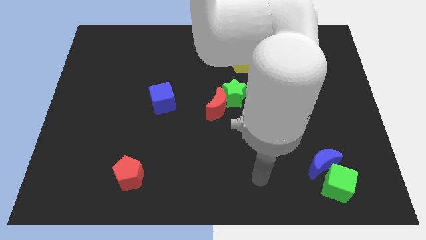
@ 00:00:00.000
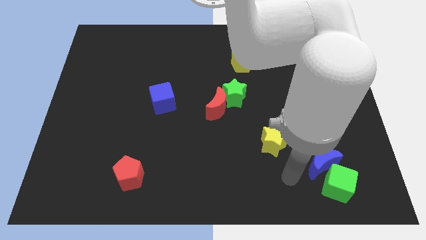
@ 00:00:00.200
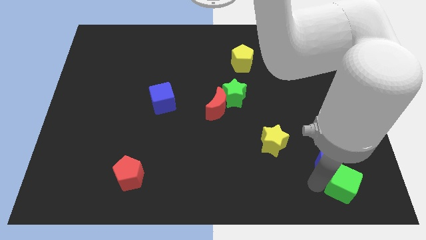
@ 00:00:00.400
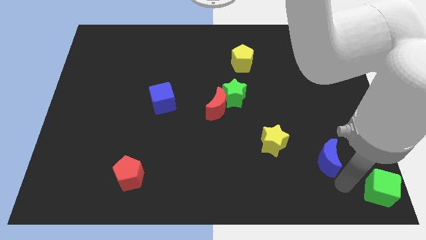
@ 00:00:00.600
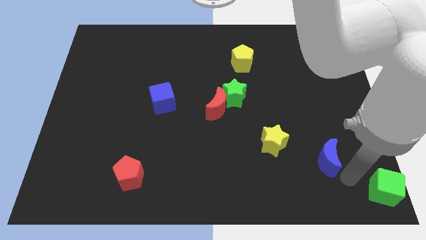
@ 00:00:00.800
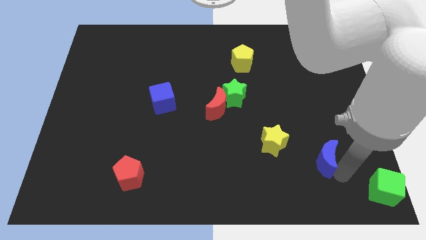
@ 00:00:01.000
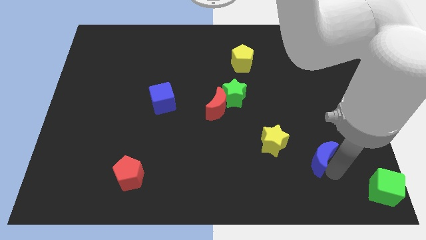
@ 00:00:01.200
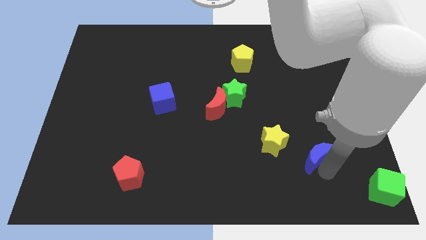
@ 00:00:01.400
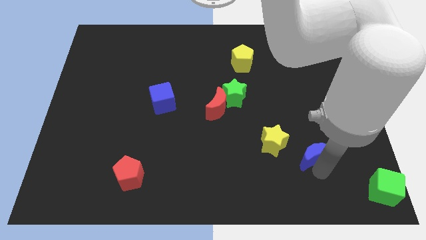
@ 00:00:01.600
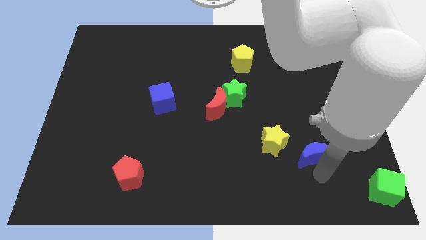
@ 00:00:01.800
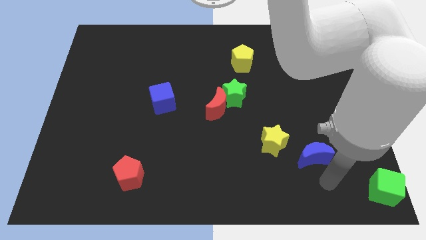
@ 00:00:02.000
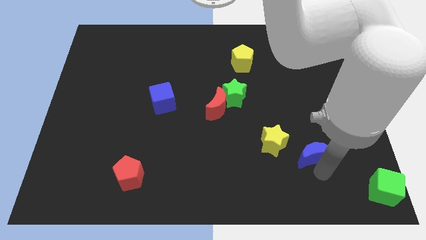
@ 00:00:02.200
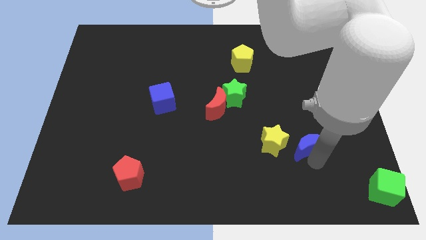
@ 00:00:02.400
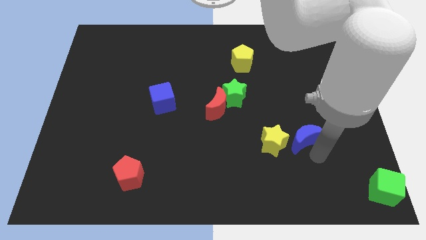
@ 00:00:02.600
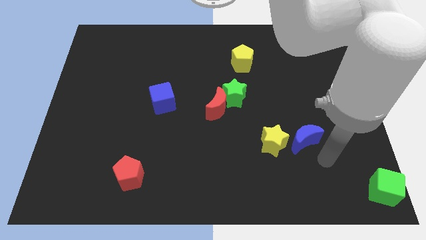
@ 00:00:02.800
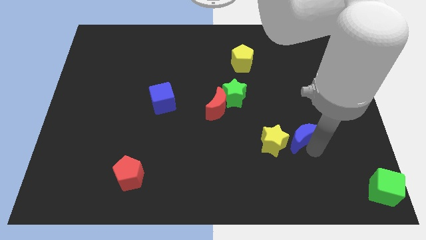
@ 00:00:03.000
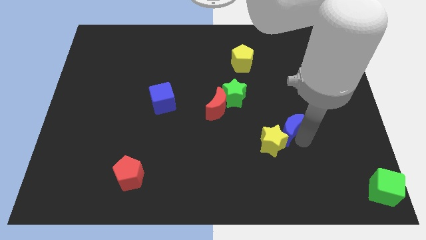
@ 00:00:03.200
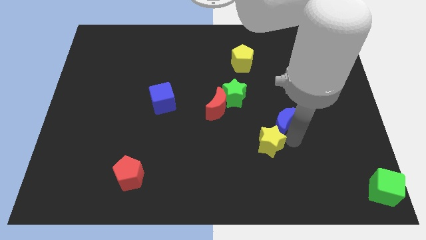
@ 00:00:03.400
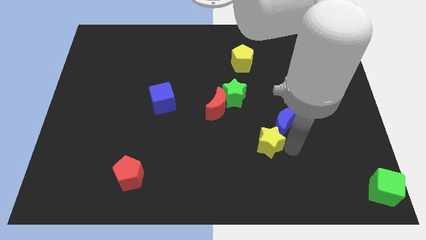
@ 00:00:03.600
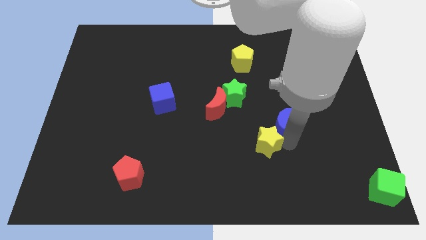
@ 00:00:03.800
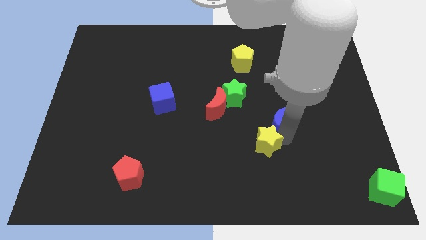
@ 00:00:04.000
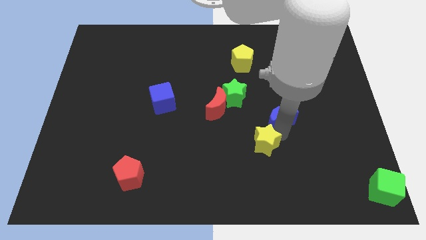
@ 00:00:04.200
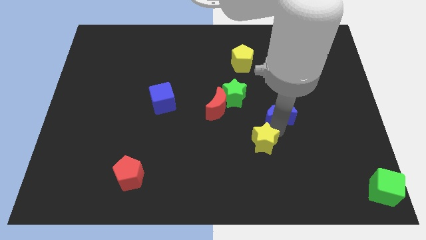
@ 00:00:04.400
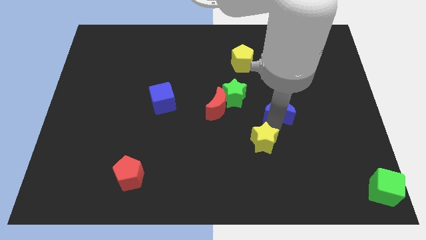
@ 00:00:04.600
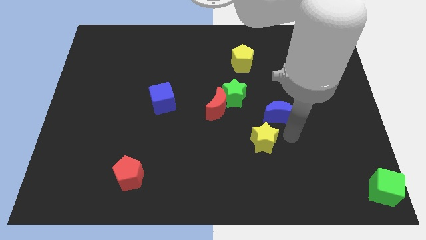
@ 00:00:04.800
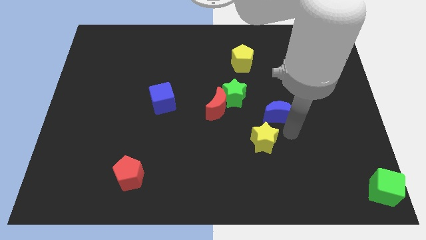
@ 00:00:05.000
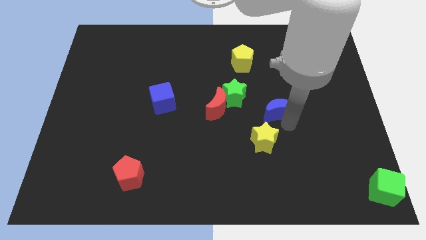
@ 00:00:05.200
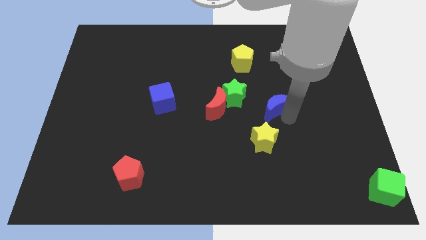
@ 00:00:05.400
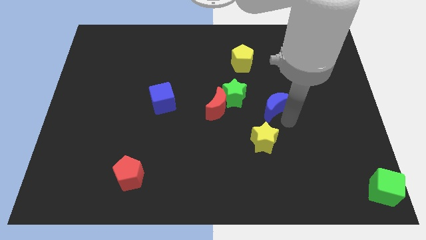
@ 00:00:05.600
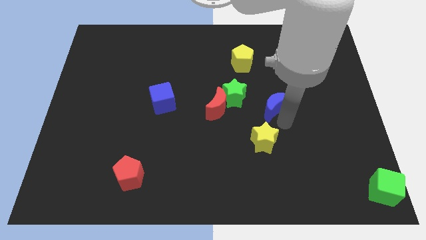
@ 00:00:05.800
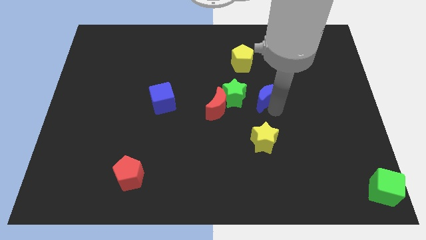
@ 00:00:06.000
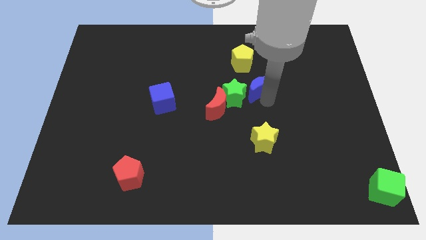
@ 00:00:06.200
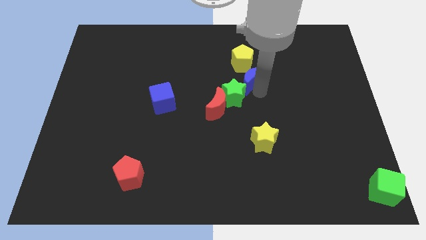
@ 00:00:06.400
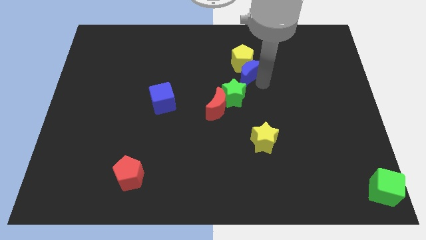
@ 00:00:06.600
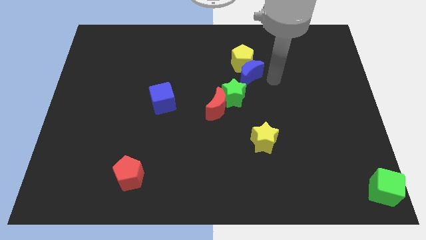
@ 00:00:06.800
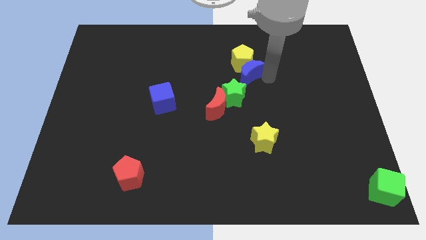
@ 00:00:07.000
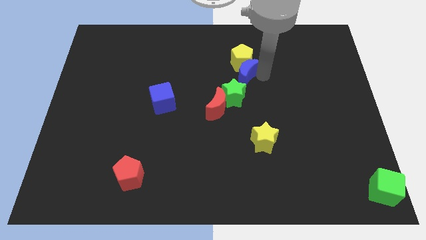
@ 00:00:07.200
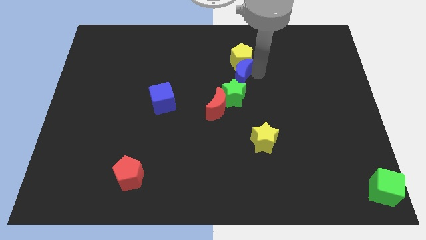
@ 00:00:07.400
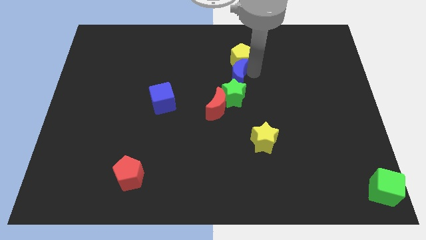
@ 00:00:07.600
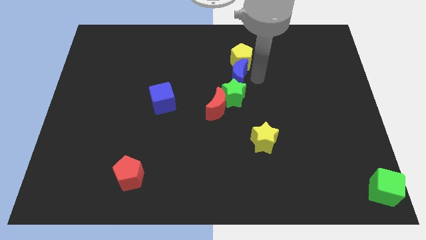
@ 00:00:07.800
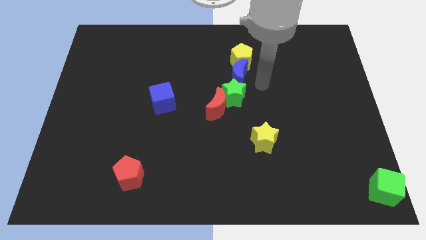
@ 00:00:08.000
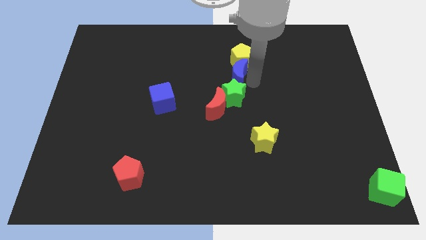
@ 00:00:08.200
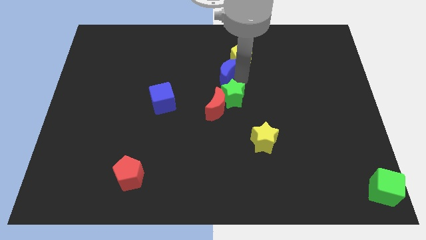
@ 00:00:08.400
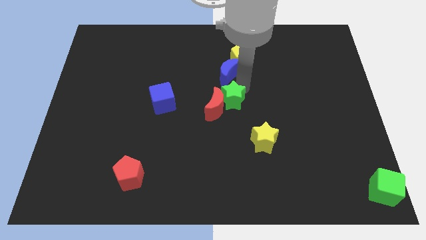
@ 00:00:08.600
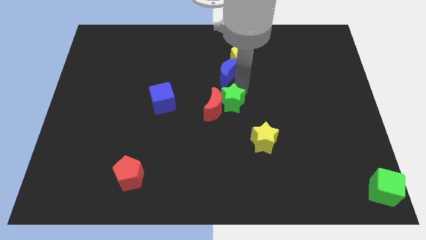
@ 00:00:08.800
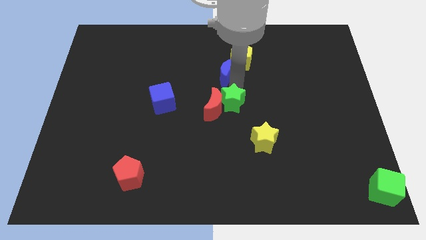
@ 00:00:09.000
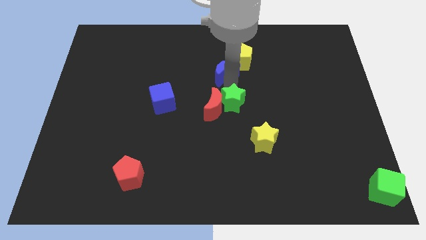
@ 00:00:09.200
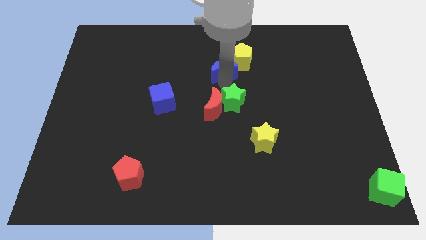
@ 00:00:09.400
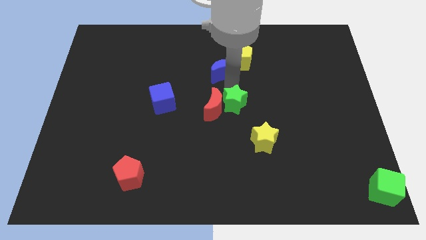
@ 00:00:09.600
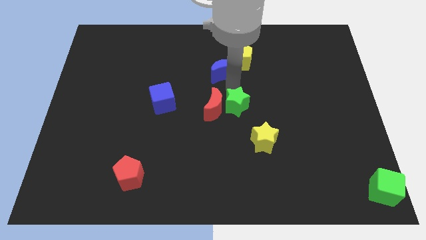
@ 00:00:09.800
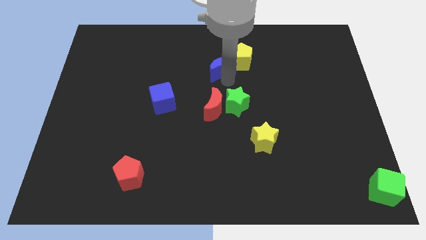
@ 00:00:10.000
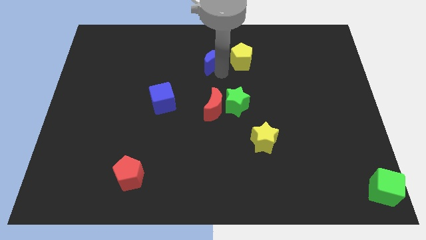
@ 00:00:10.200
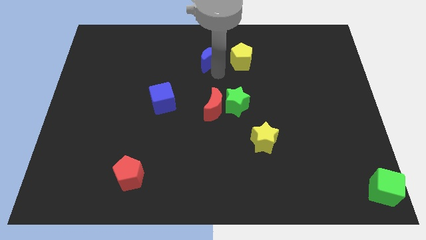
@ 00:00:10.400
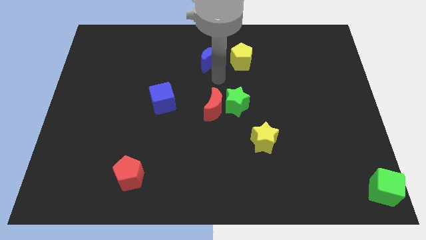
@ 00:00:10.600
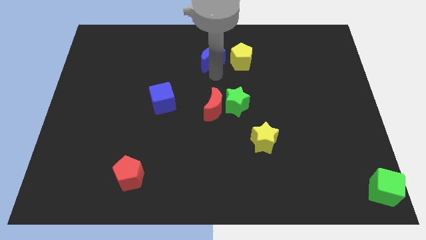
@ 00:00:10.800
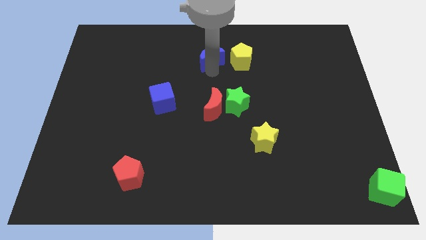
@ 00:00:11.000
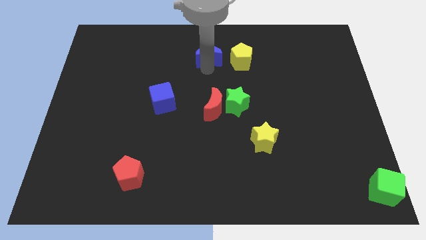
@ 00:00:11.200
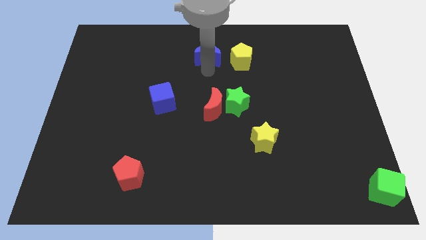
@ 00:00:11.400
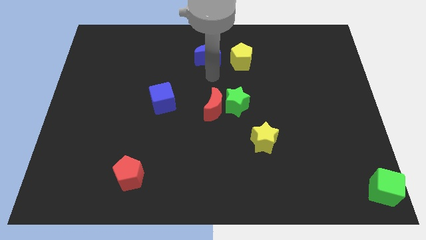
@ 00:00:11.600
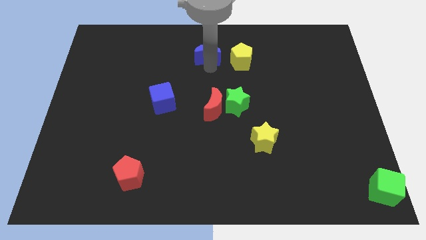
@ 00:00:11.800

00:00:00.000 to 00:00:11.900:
push the blue moon to the top side
